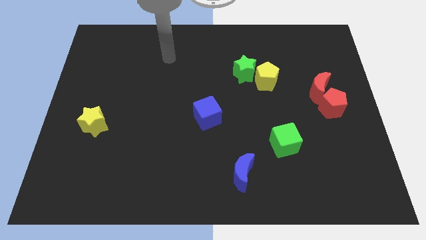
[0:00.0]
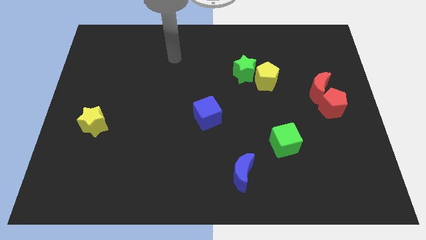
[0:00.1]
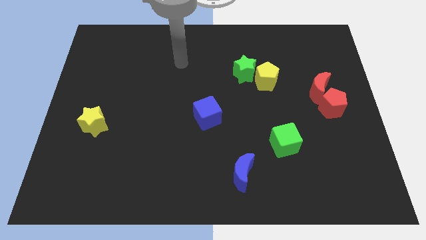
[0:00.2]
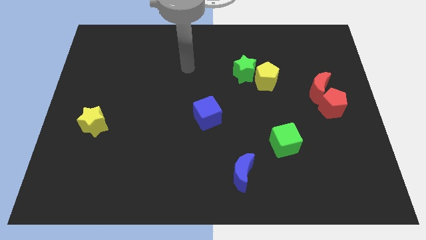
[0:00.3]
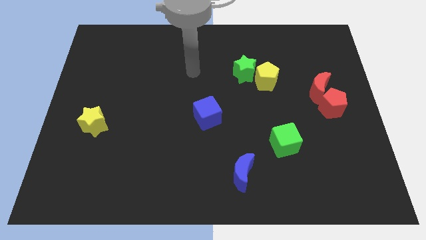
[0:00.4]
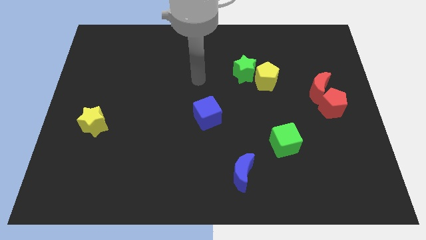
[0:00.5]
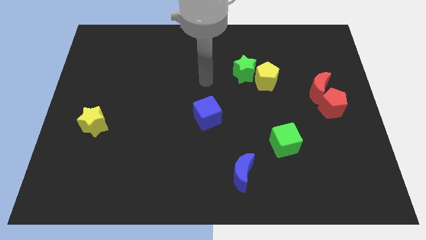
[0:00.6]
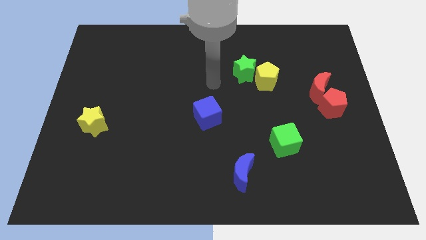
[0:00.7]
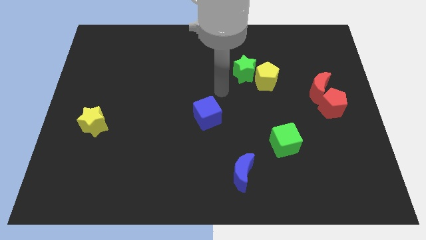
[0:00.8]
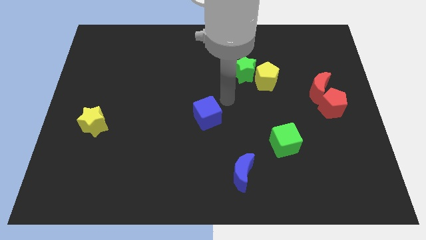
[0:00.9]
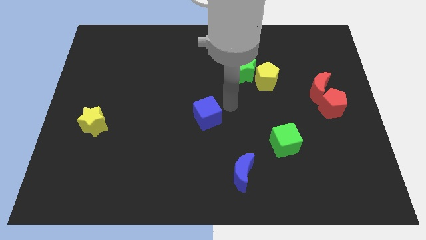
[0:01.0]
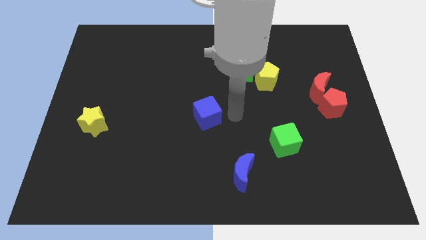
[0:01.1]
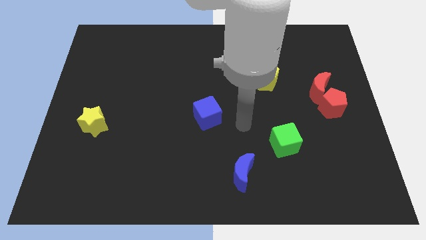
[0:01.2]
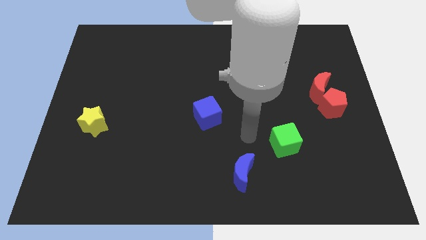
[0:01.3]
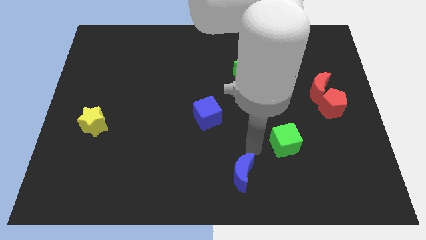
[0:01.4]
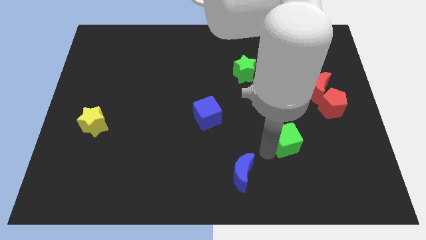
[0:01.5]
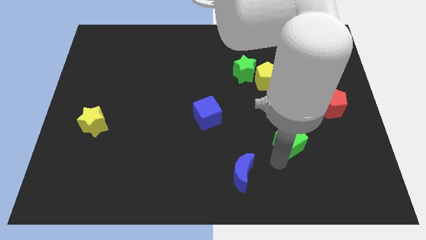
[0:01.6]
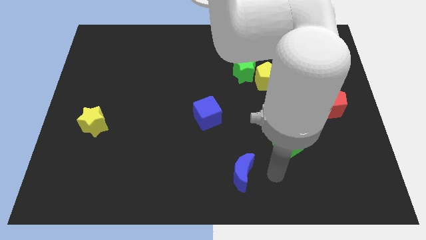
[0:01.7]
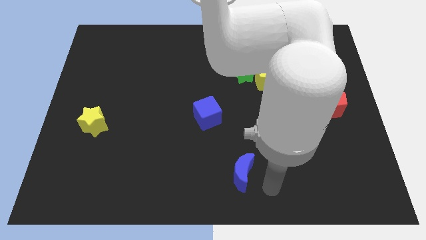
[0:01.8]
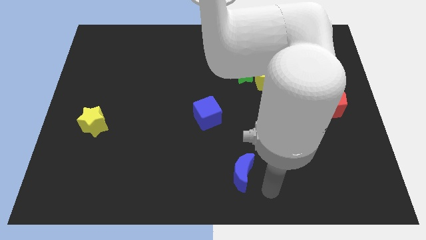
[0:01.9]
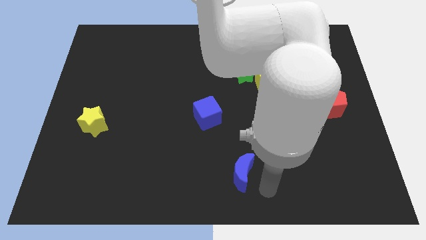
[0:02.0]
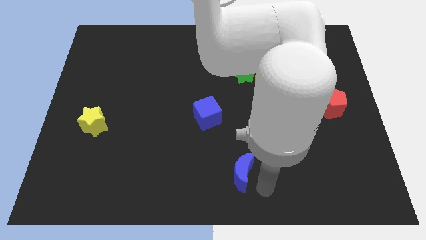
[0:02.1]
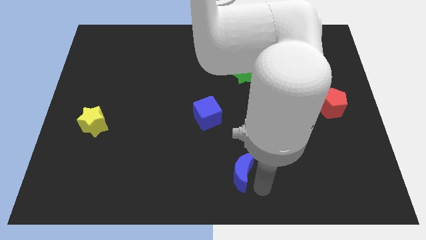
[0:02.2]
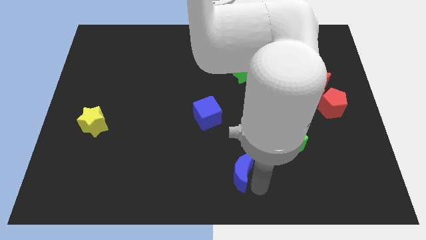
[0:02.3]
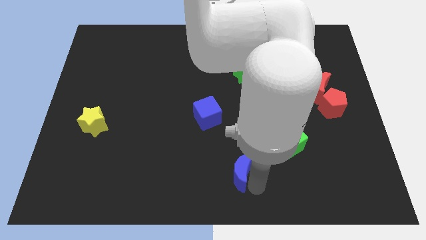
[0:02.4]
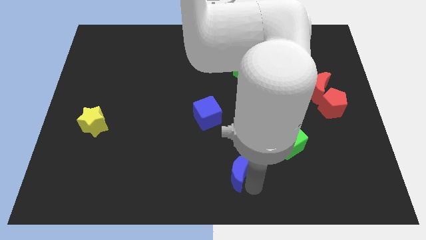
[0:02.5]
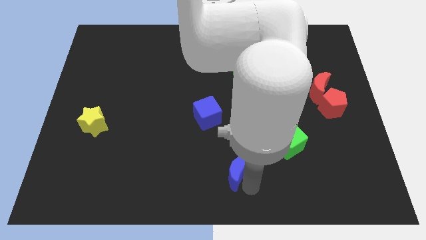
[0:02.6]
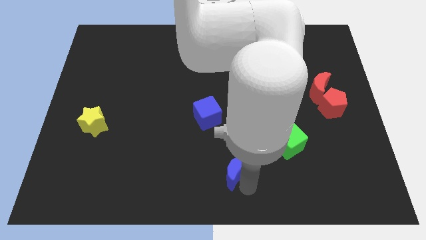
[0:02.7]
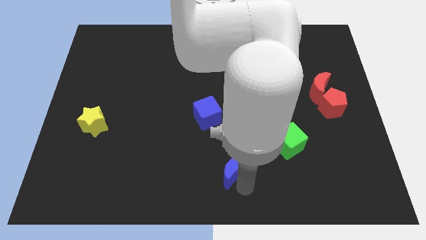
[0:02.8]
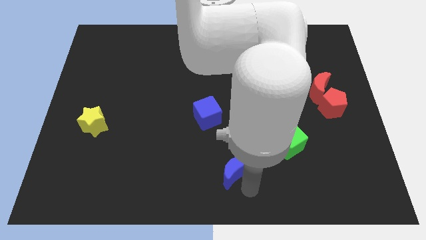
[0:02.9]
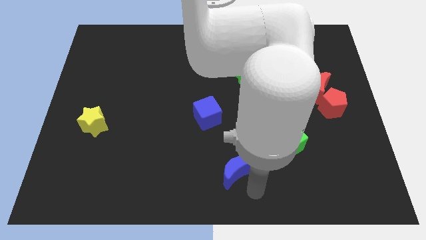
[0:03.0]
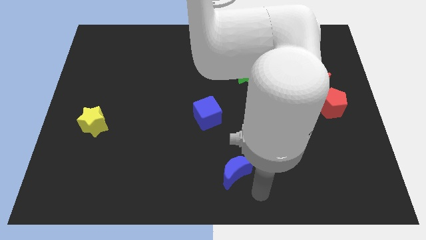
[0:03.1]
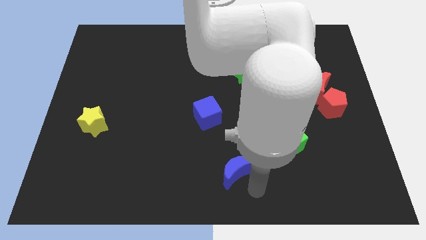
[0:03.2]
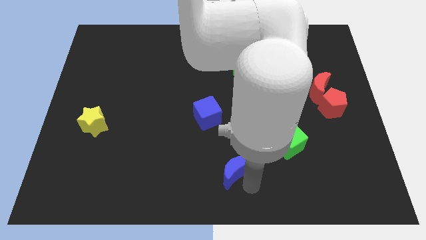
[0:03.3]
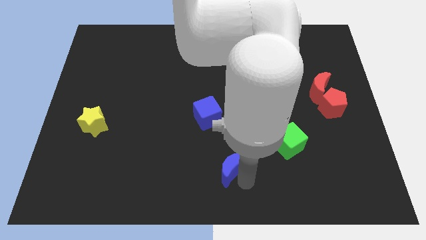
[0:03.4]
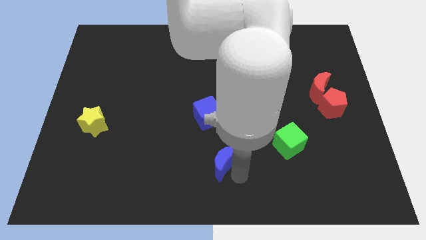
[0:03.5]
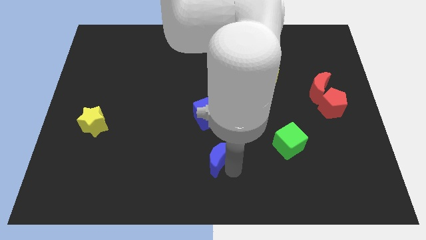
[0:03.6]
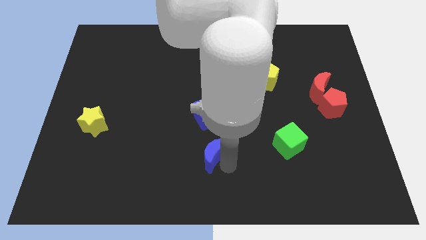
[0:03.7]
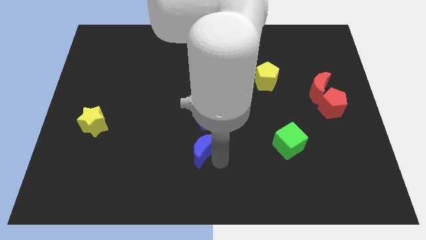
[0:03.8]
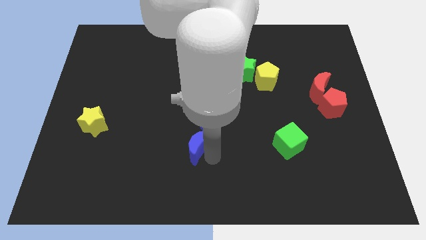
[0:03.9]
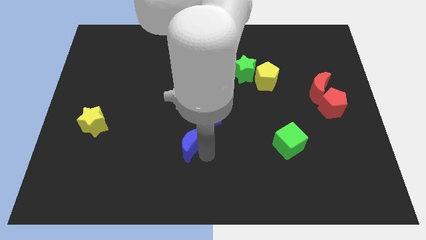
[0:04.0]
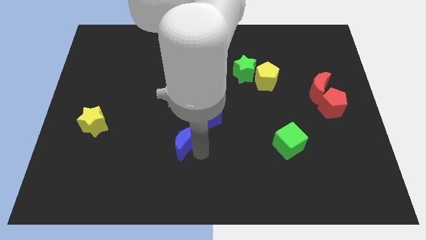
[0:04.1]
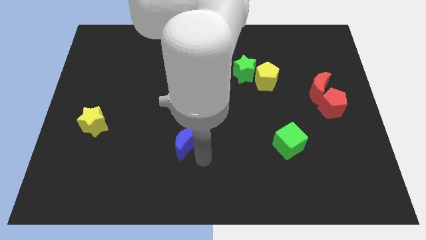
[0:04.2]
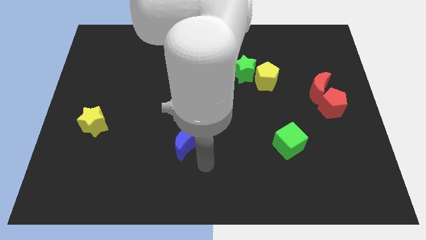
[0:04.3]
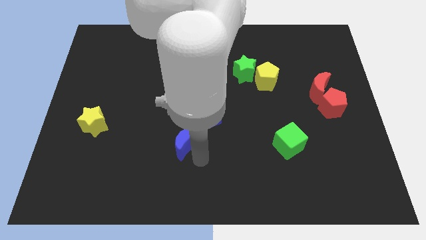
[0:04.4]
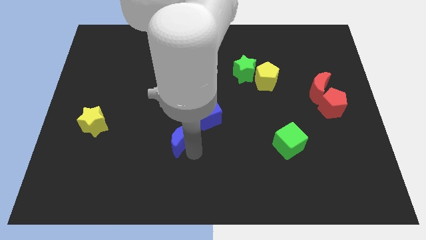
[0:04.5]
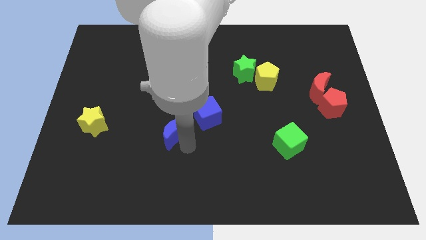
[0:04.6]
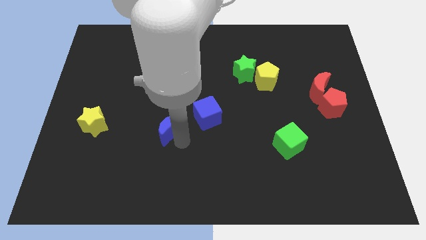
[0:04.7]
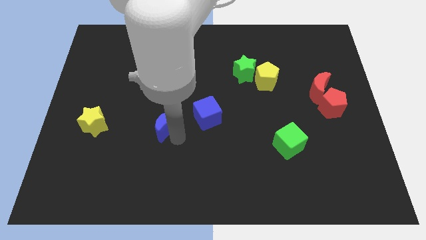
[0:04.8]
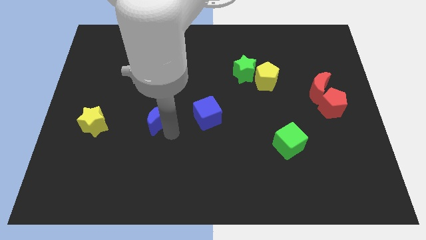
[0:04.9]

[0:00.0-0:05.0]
move the blue moon upwards and left

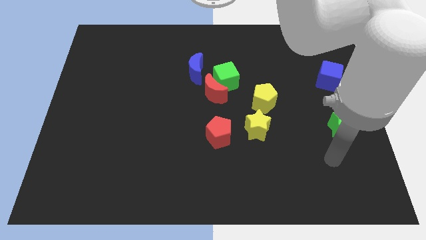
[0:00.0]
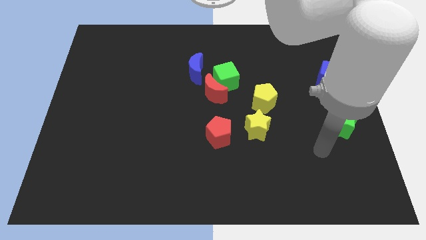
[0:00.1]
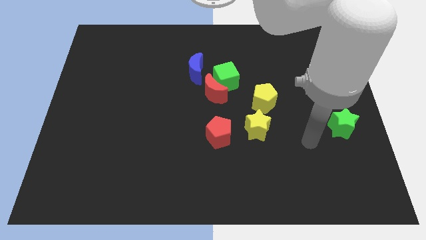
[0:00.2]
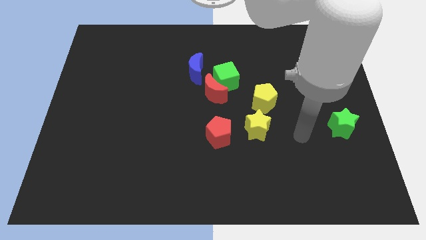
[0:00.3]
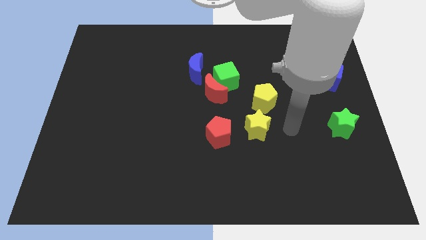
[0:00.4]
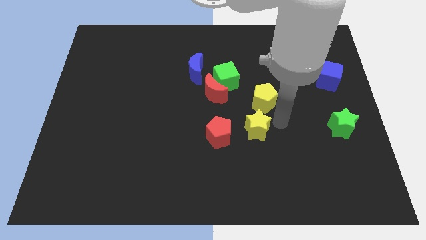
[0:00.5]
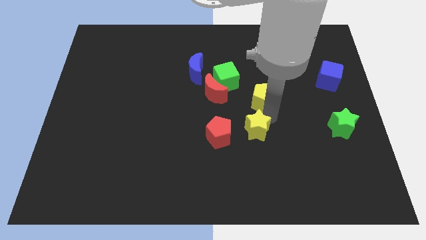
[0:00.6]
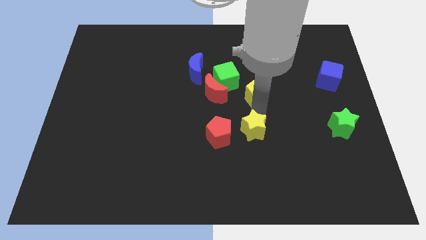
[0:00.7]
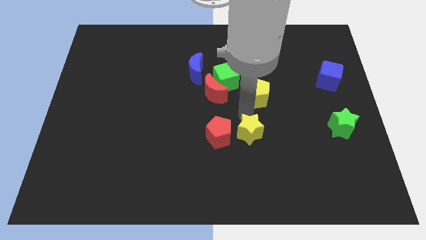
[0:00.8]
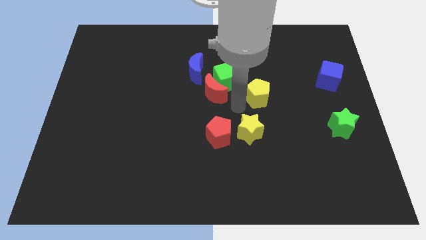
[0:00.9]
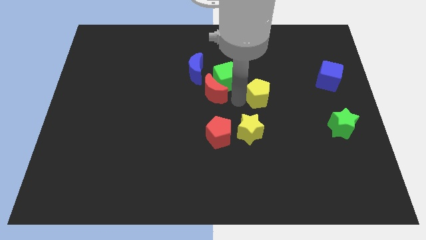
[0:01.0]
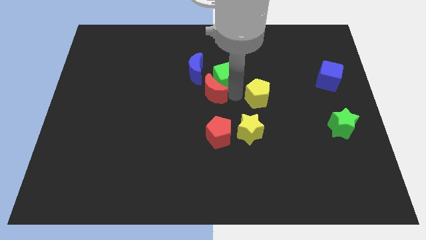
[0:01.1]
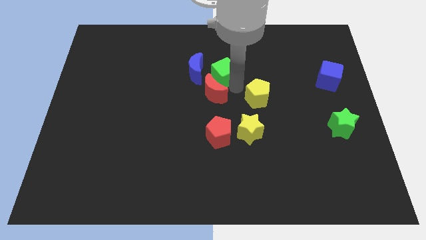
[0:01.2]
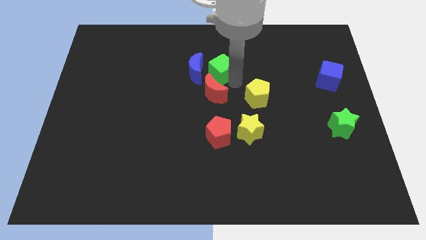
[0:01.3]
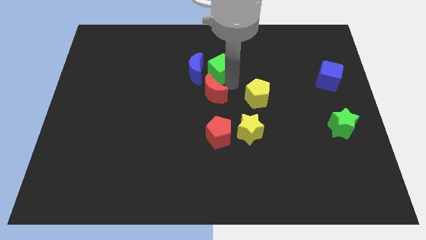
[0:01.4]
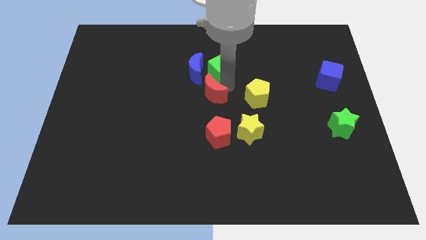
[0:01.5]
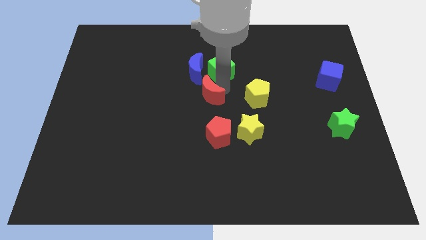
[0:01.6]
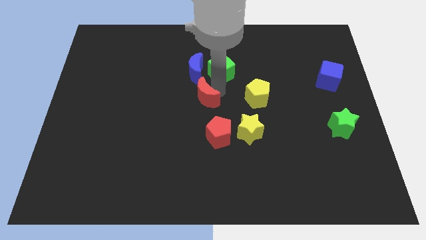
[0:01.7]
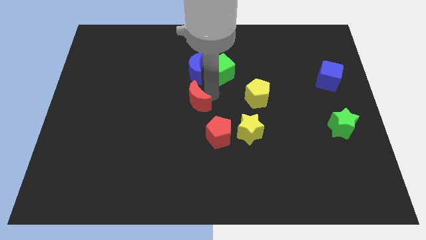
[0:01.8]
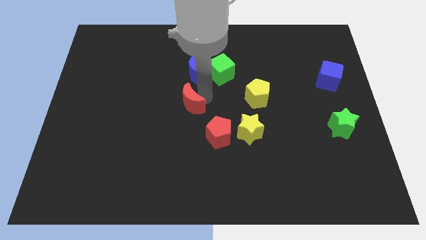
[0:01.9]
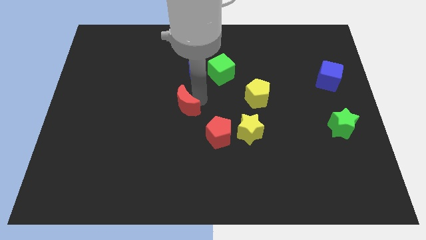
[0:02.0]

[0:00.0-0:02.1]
slide the red moon a little diagonally downwards and to the left

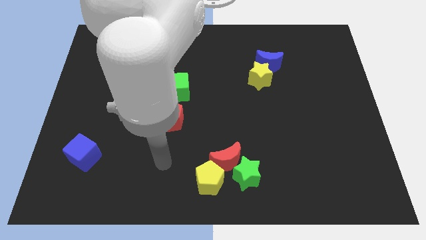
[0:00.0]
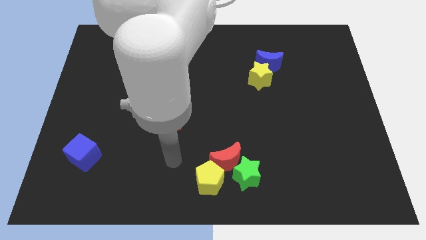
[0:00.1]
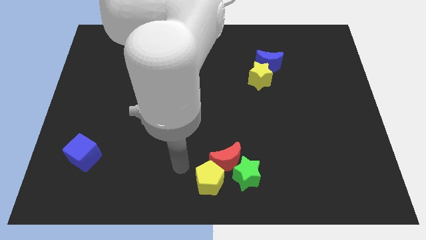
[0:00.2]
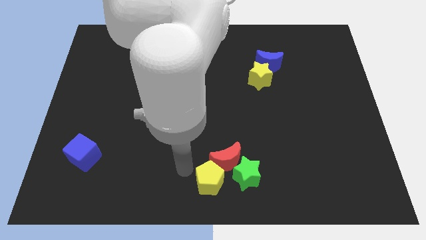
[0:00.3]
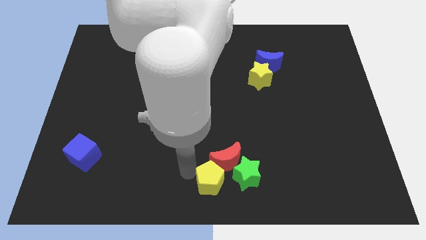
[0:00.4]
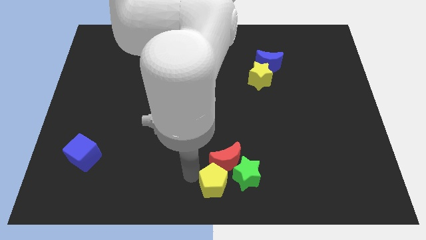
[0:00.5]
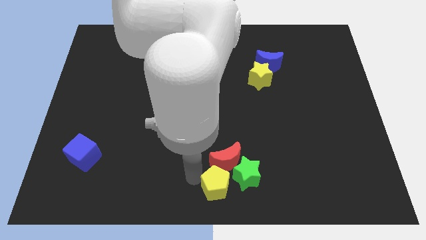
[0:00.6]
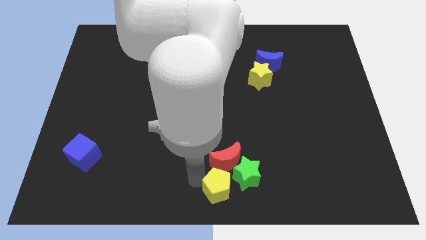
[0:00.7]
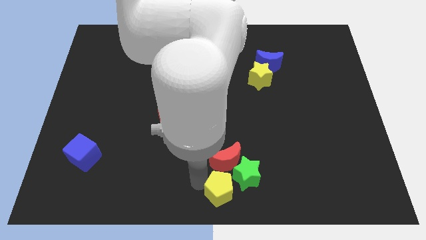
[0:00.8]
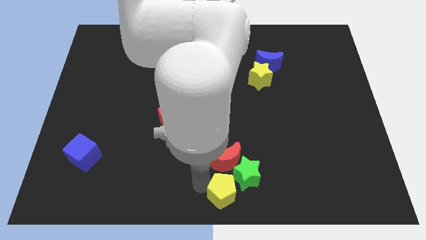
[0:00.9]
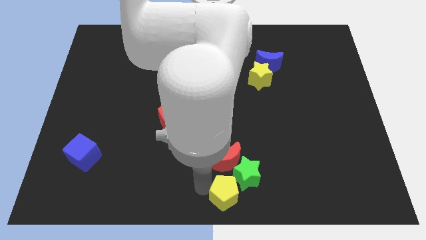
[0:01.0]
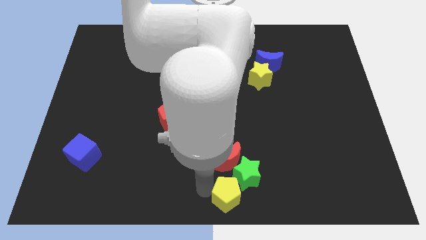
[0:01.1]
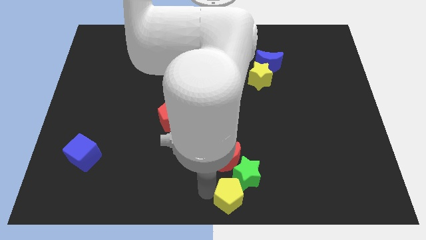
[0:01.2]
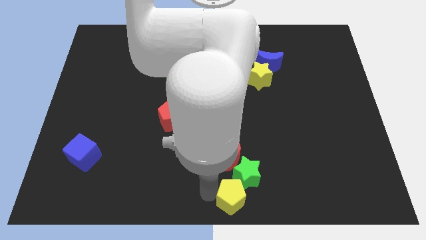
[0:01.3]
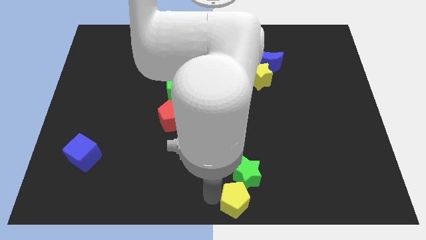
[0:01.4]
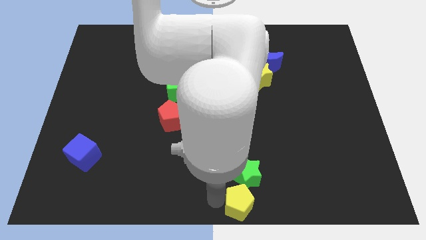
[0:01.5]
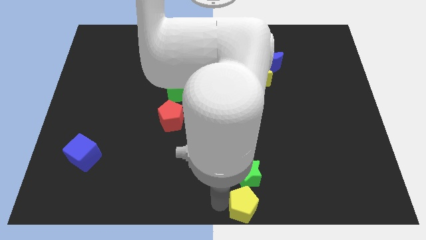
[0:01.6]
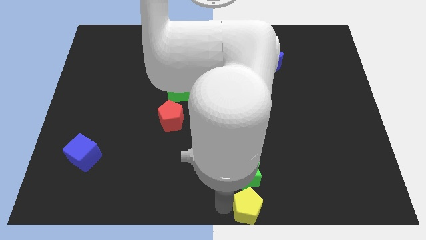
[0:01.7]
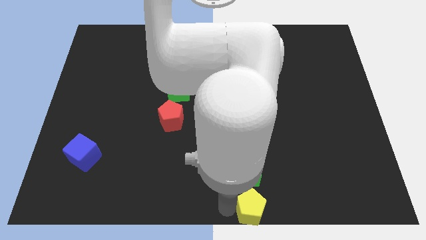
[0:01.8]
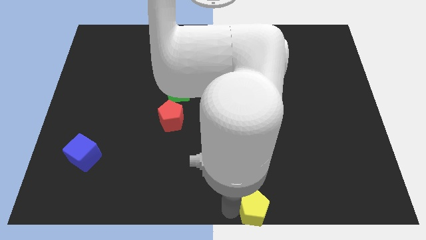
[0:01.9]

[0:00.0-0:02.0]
slightly push the yellow pentagon right
